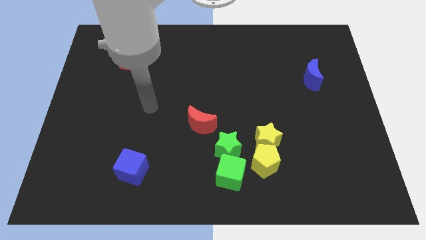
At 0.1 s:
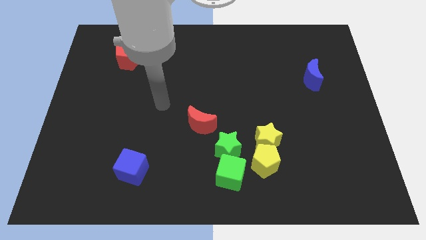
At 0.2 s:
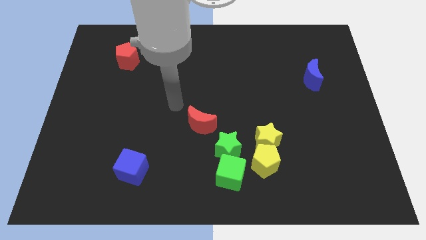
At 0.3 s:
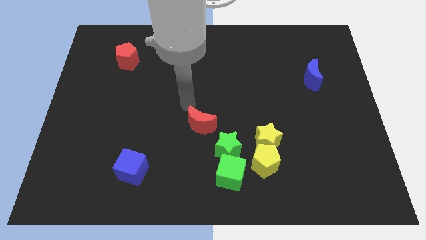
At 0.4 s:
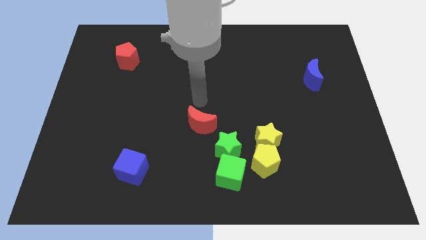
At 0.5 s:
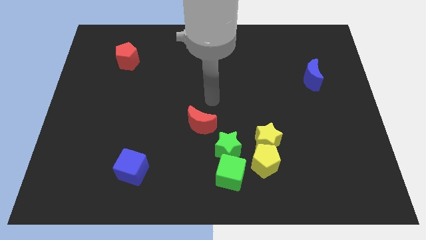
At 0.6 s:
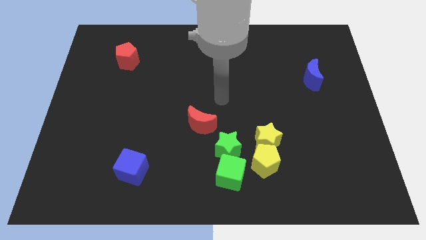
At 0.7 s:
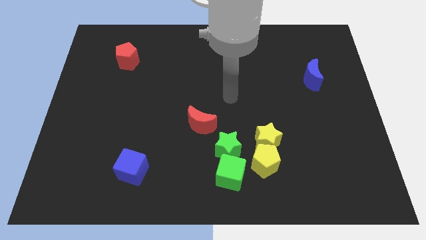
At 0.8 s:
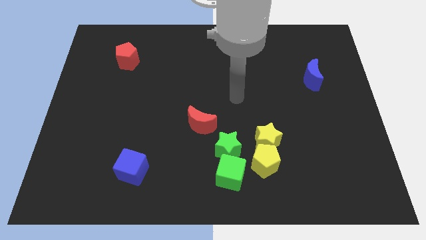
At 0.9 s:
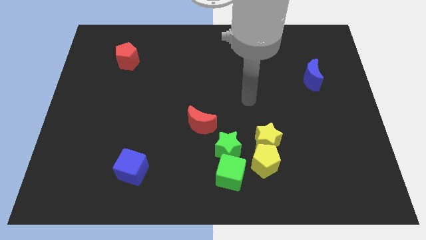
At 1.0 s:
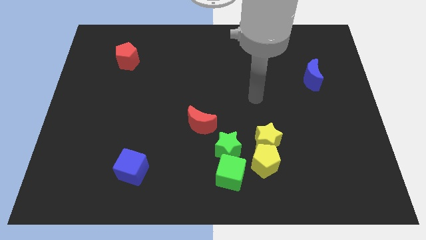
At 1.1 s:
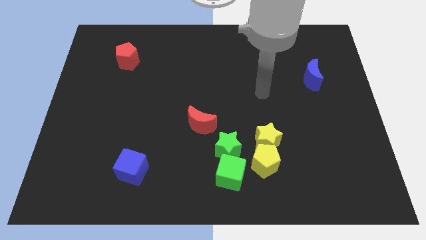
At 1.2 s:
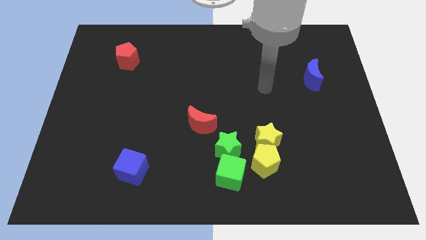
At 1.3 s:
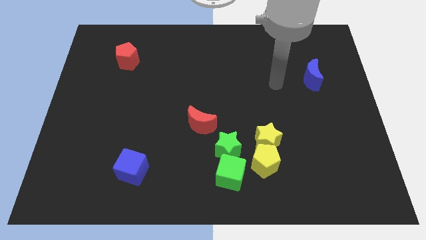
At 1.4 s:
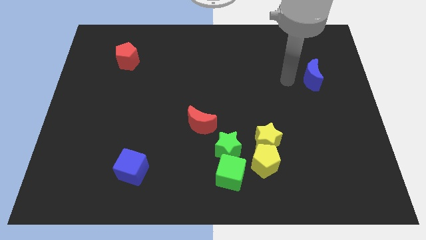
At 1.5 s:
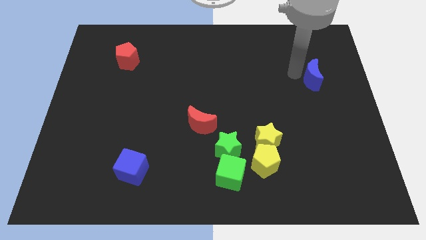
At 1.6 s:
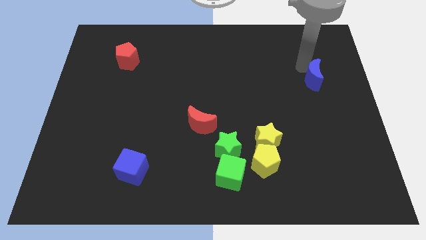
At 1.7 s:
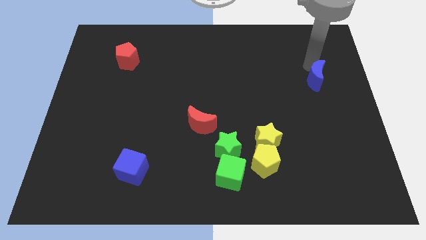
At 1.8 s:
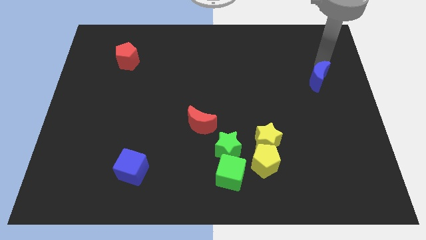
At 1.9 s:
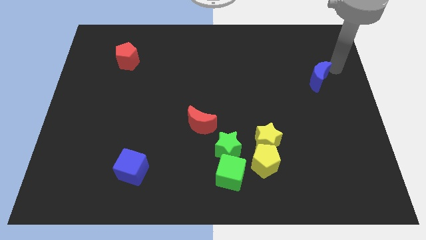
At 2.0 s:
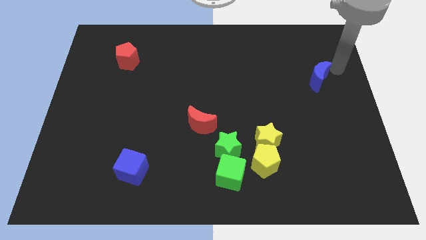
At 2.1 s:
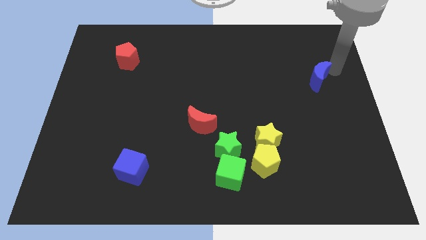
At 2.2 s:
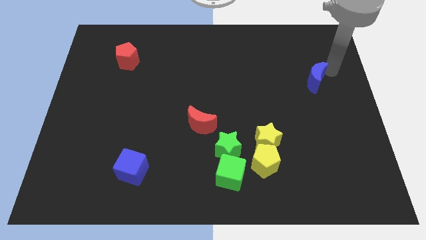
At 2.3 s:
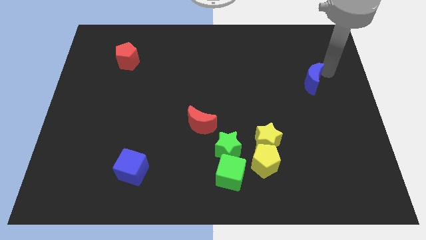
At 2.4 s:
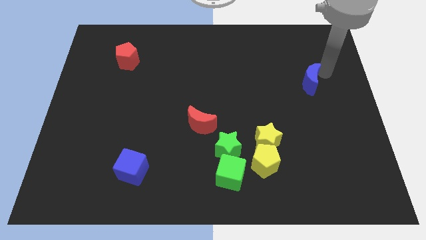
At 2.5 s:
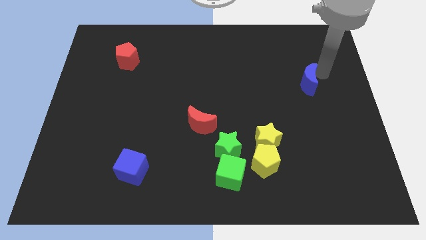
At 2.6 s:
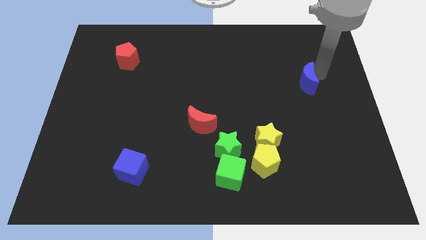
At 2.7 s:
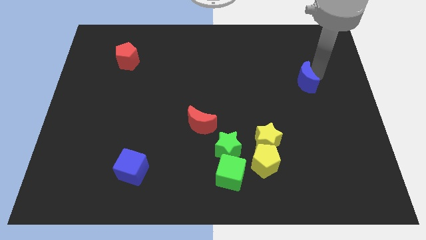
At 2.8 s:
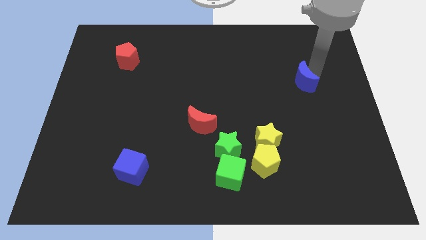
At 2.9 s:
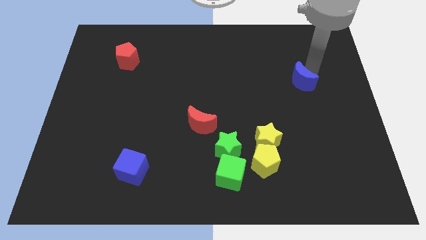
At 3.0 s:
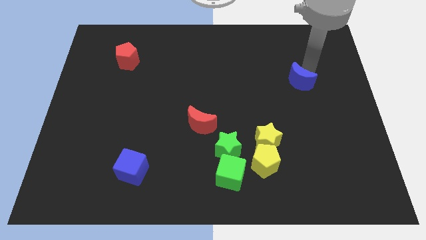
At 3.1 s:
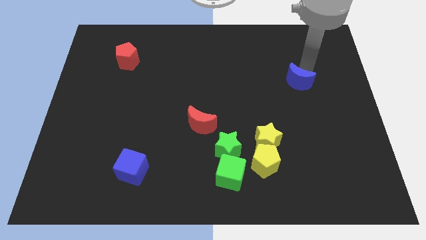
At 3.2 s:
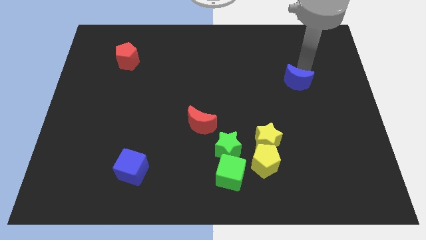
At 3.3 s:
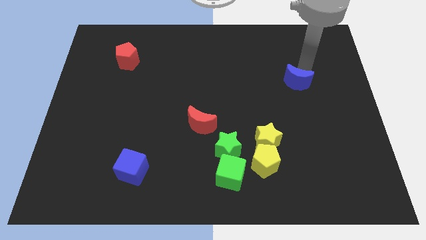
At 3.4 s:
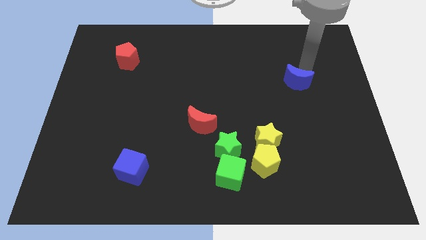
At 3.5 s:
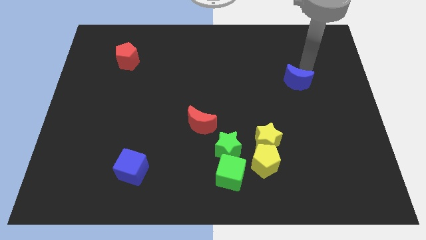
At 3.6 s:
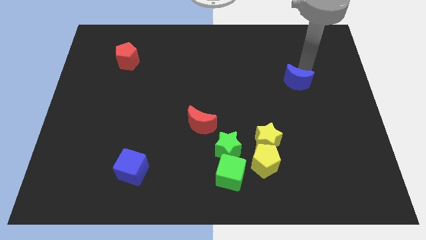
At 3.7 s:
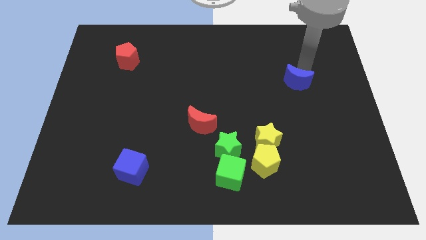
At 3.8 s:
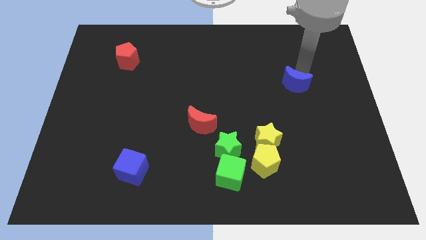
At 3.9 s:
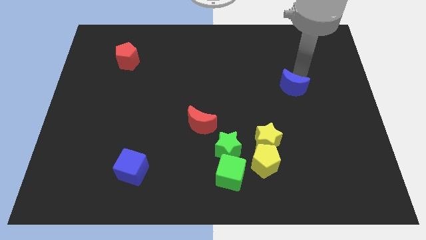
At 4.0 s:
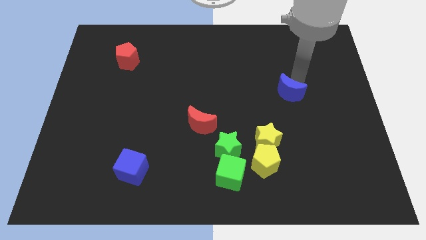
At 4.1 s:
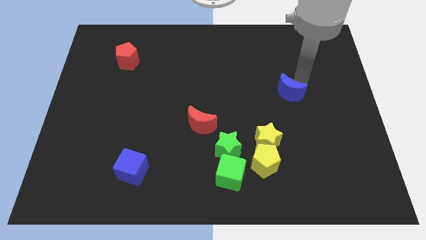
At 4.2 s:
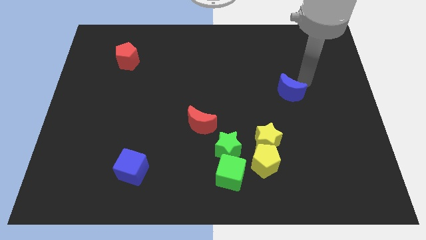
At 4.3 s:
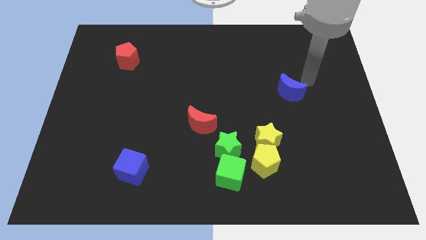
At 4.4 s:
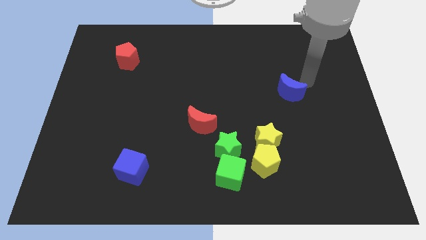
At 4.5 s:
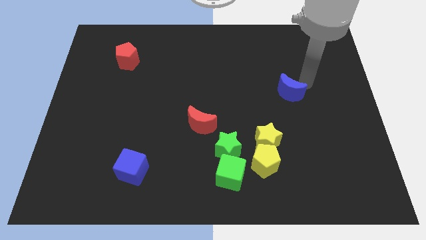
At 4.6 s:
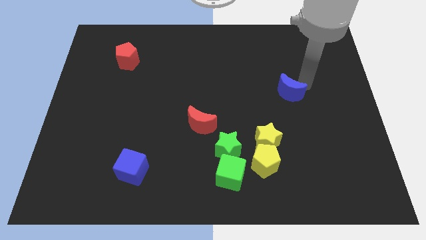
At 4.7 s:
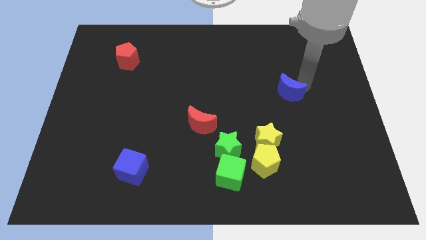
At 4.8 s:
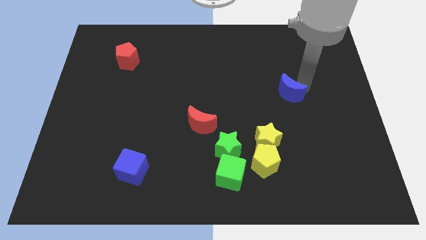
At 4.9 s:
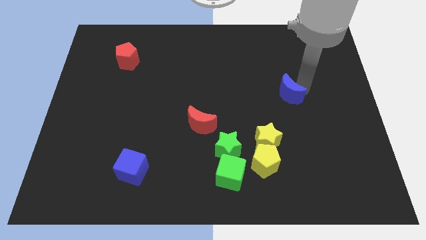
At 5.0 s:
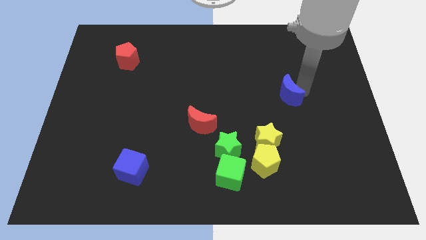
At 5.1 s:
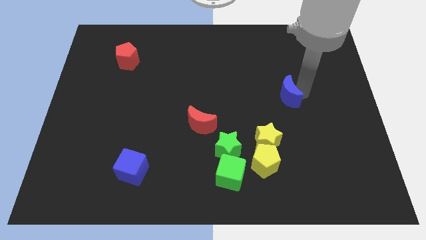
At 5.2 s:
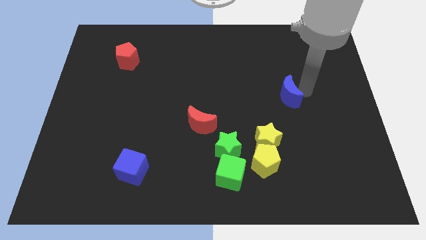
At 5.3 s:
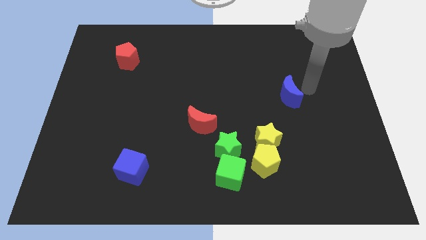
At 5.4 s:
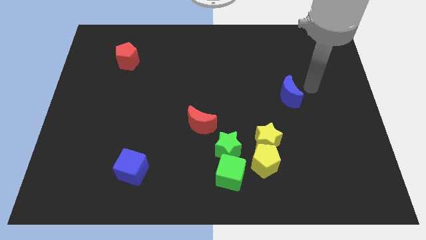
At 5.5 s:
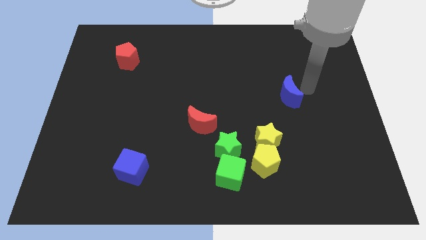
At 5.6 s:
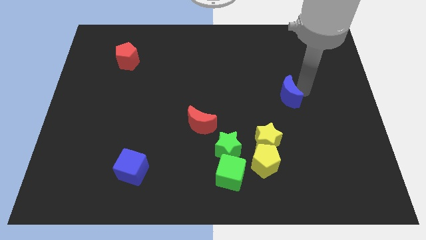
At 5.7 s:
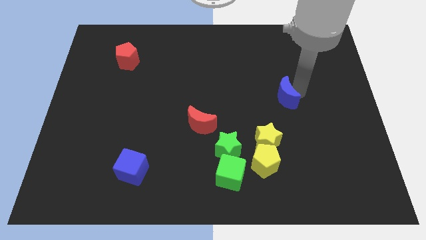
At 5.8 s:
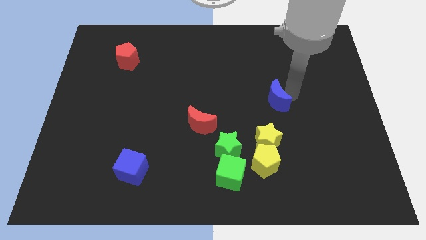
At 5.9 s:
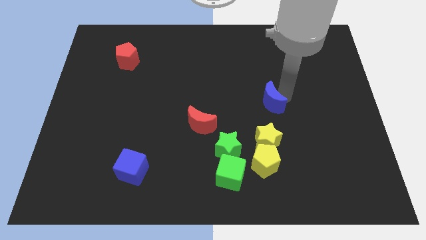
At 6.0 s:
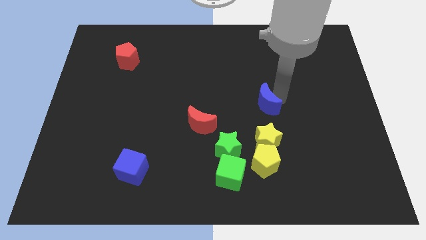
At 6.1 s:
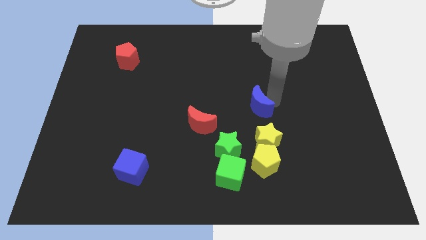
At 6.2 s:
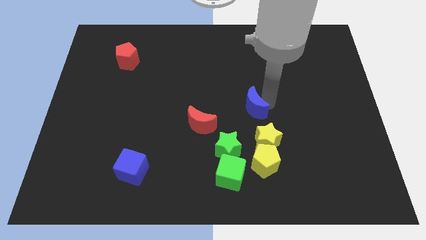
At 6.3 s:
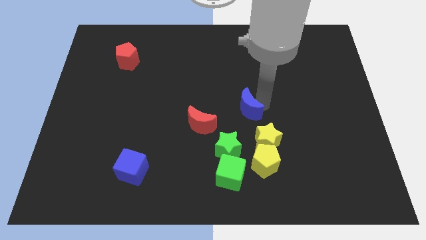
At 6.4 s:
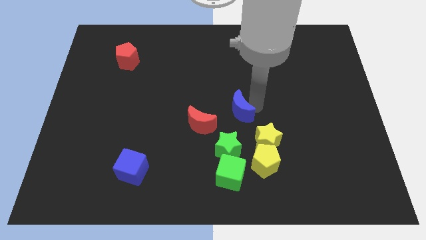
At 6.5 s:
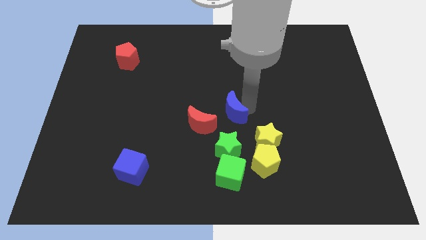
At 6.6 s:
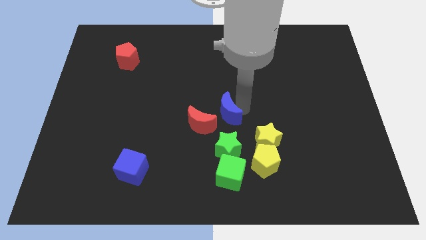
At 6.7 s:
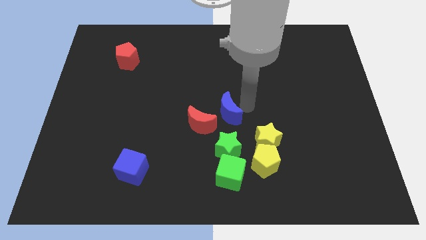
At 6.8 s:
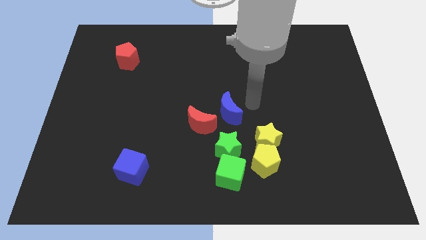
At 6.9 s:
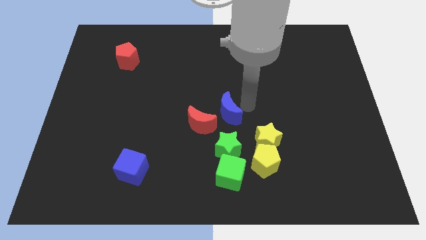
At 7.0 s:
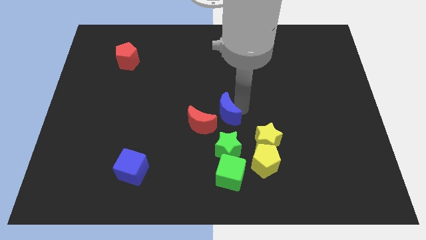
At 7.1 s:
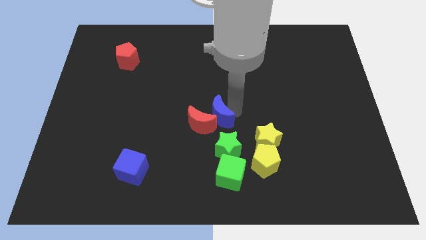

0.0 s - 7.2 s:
push the blue moon close to the red moon
